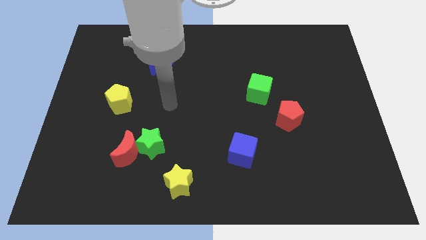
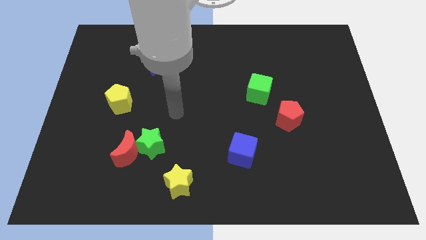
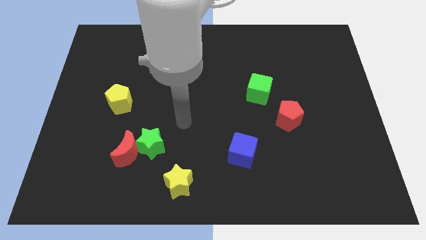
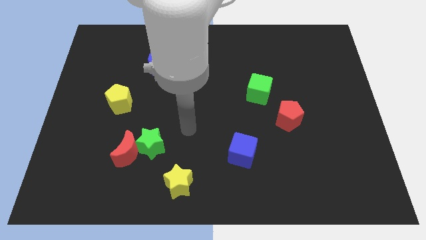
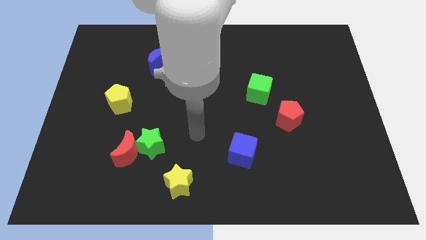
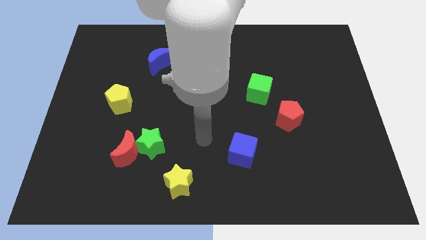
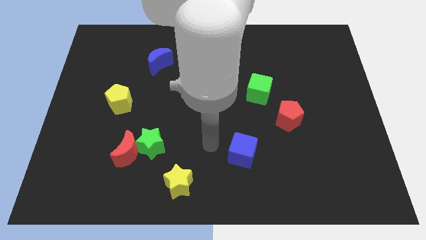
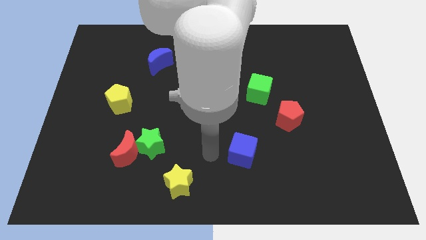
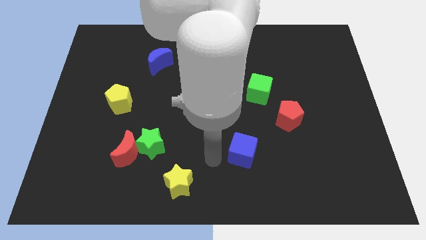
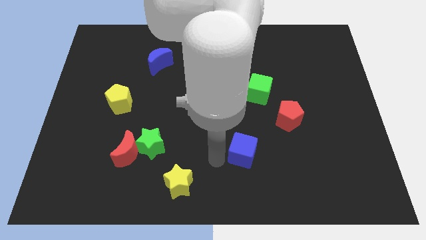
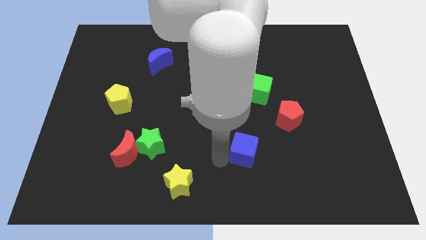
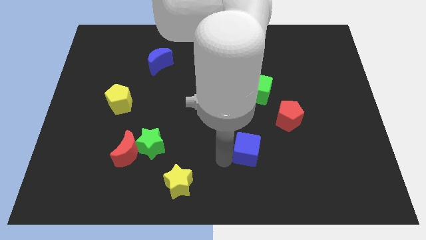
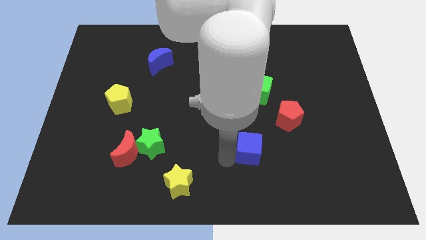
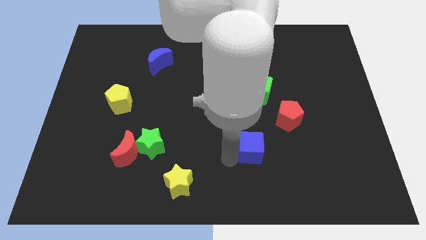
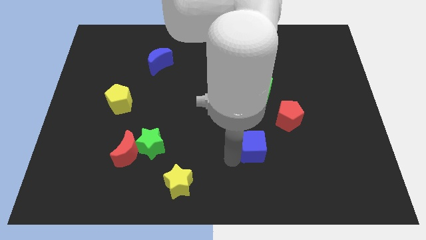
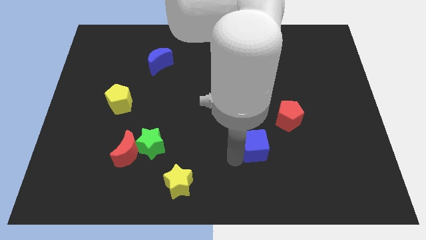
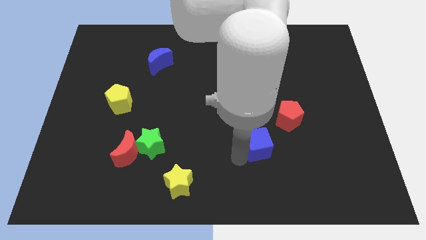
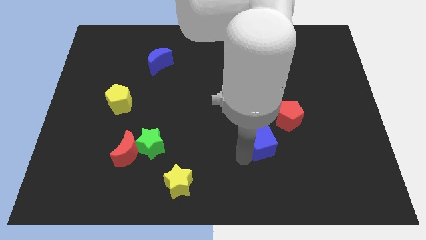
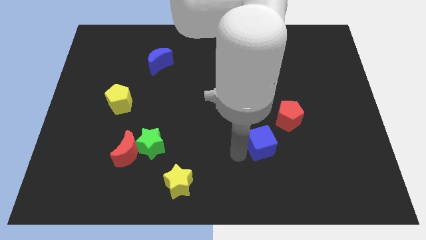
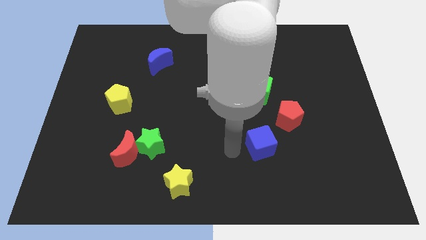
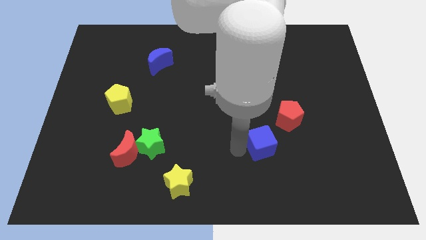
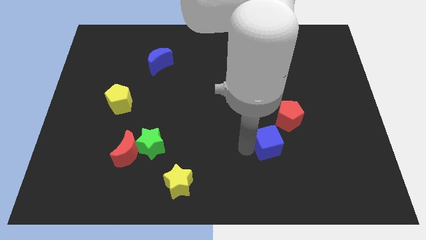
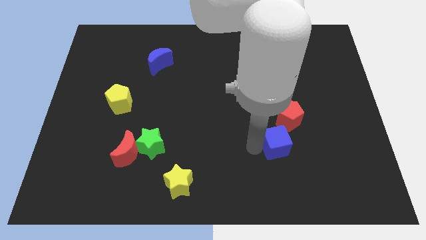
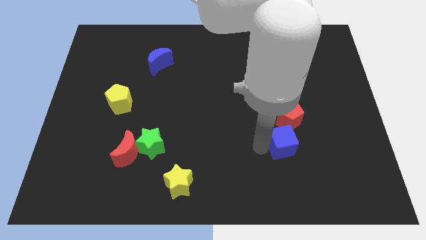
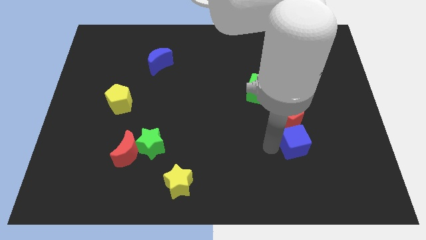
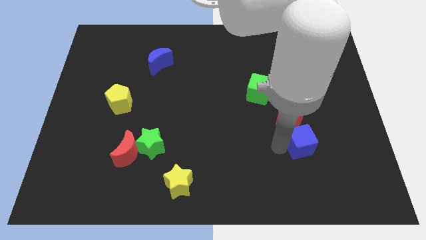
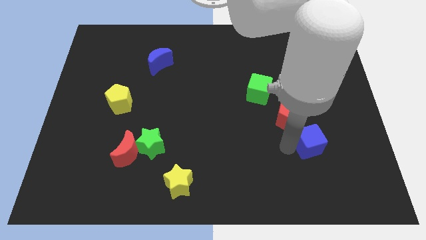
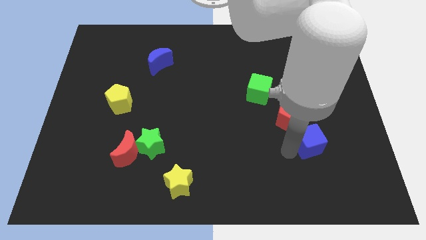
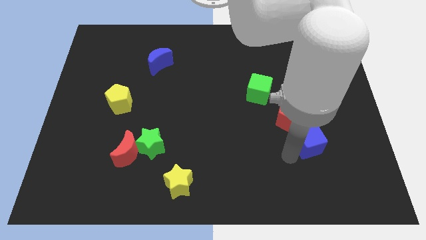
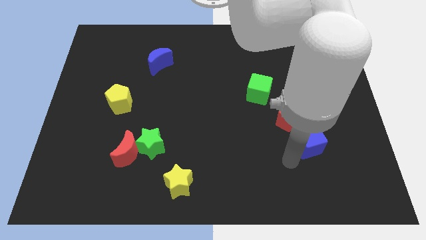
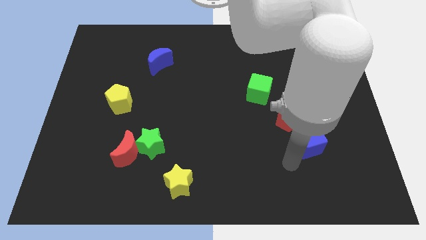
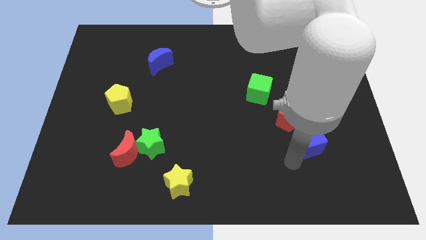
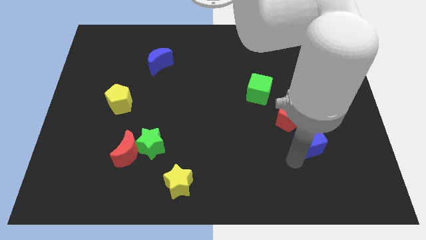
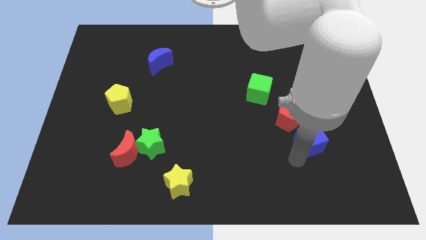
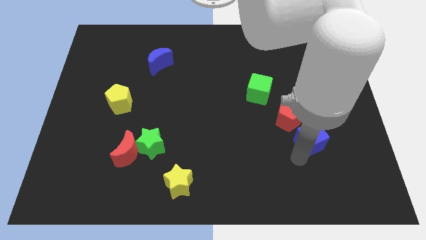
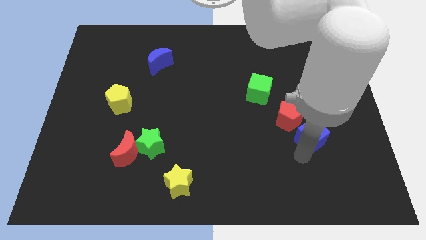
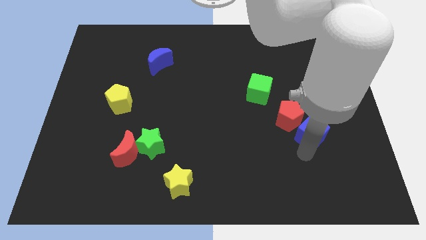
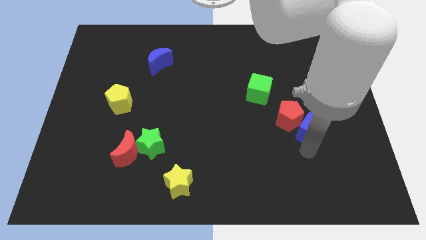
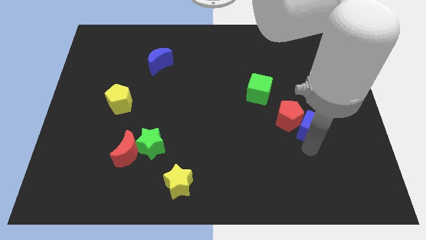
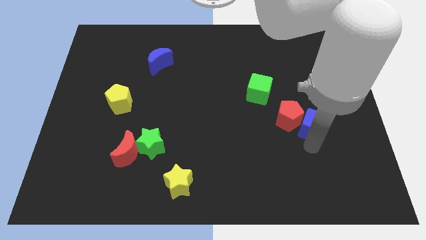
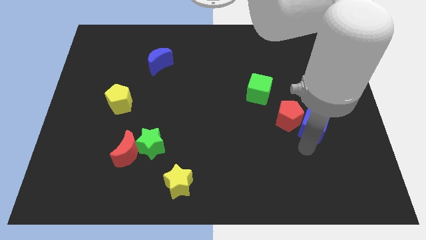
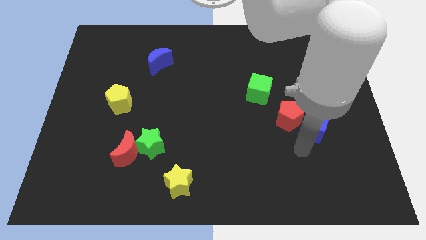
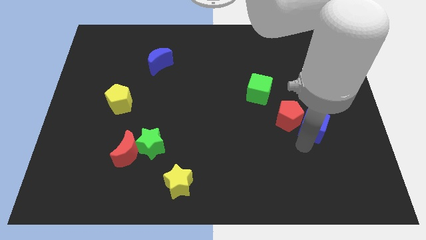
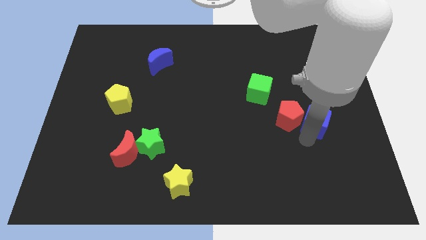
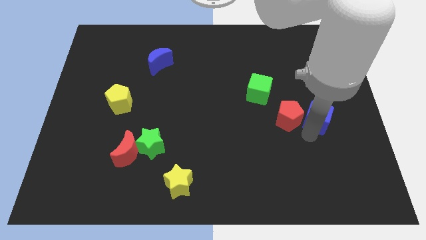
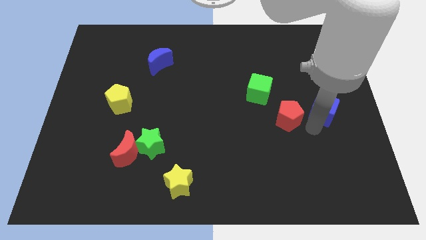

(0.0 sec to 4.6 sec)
move the blue cube upwards and then to the right

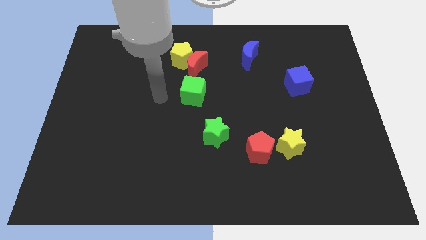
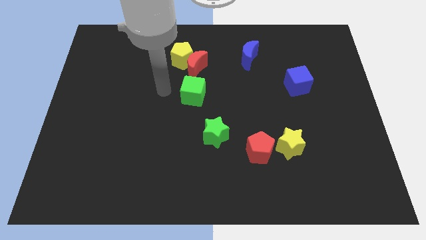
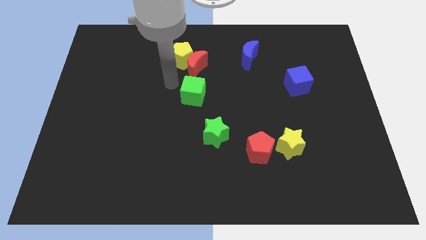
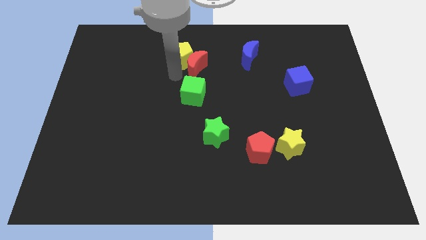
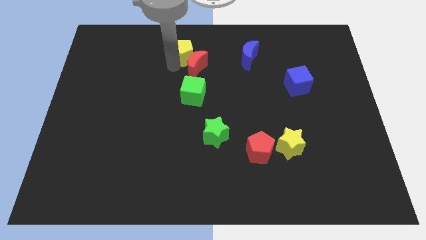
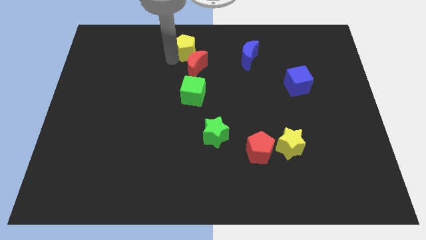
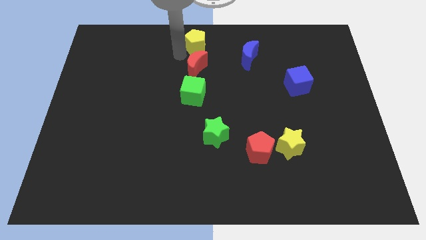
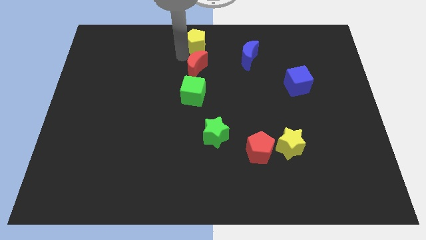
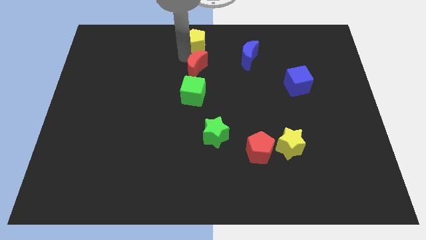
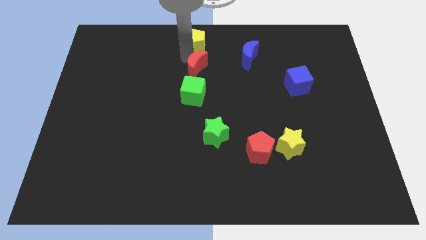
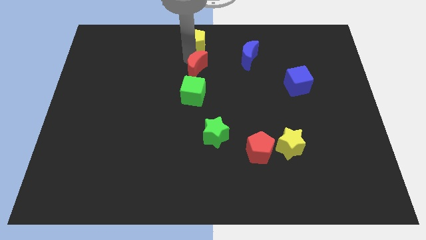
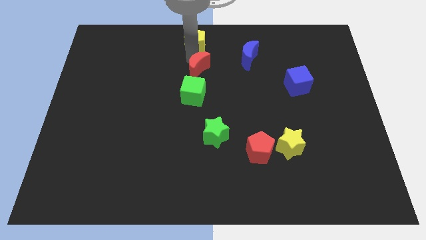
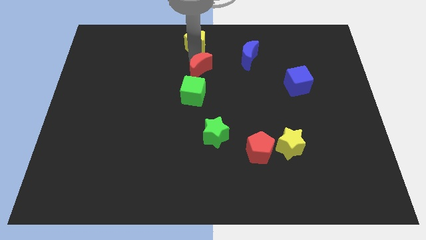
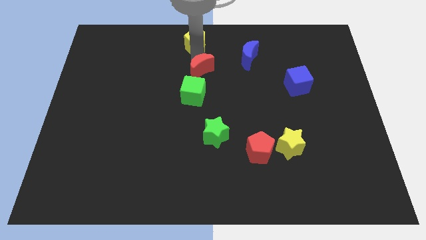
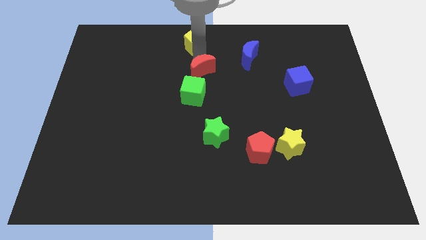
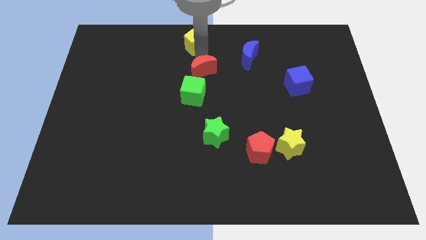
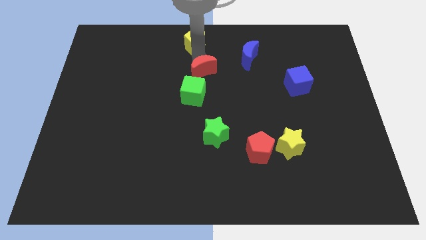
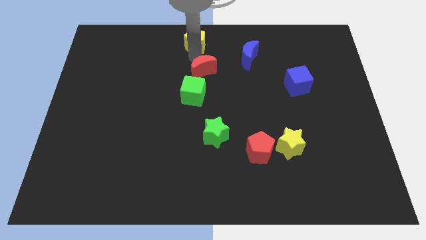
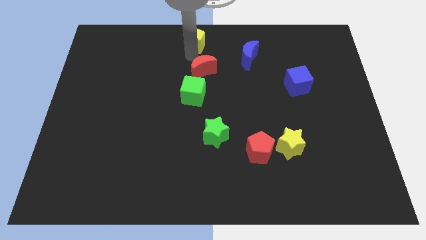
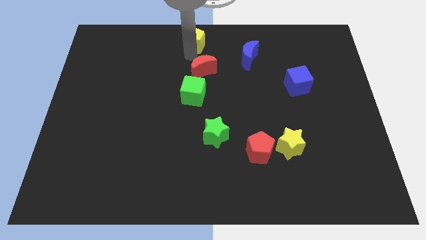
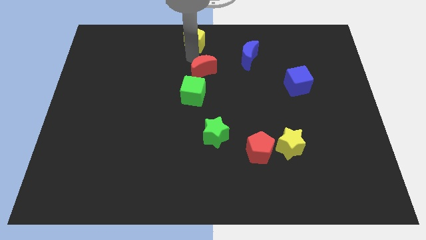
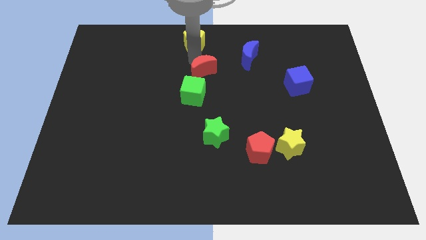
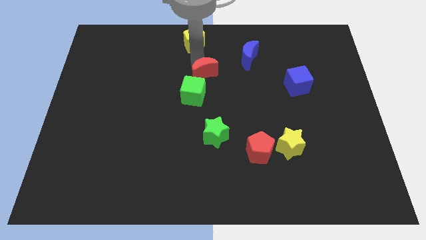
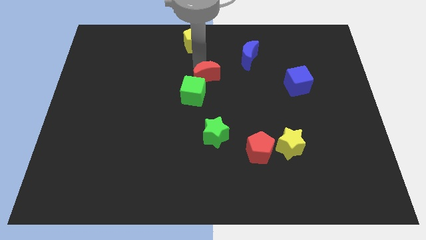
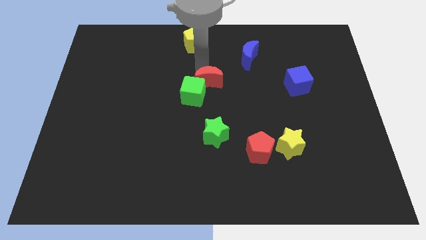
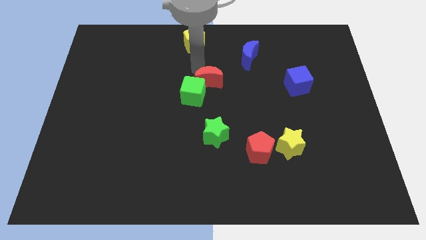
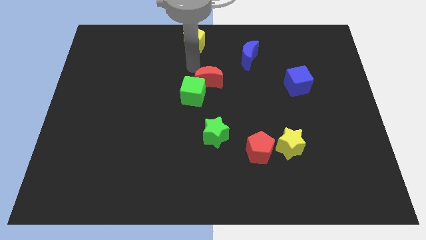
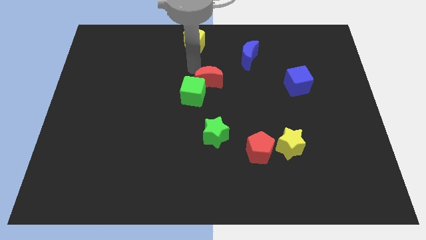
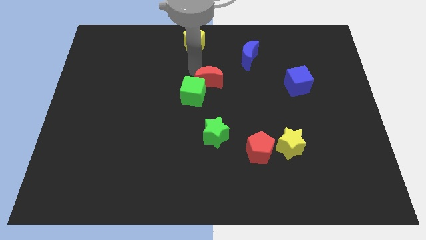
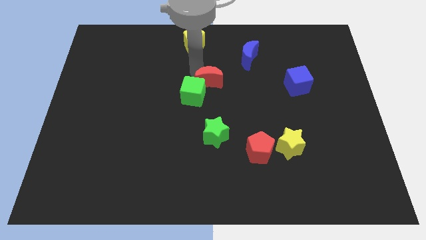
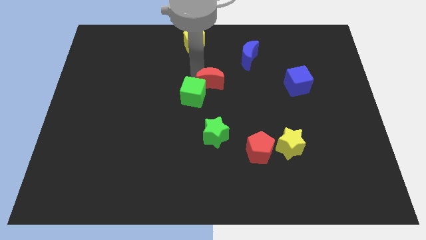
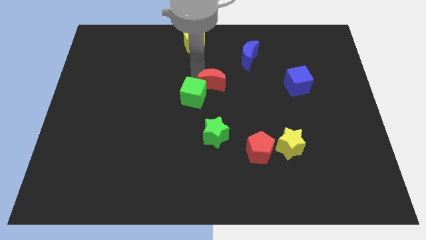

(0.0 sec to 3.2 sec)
slightly slide the red moon down and to the right diagonally

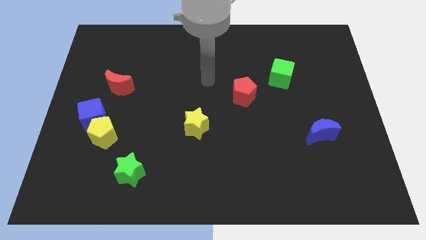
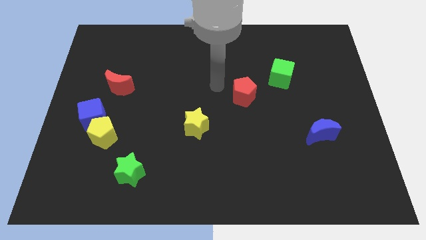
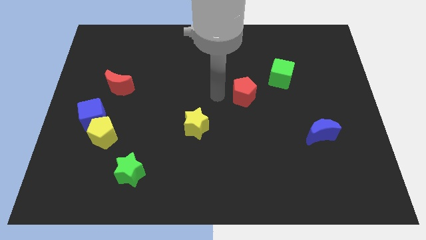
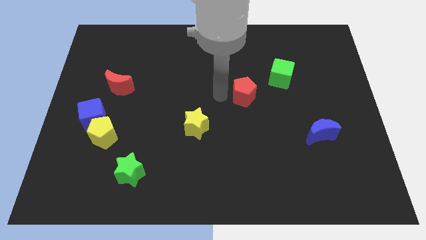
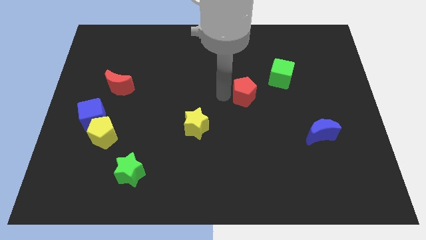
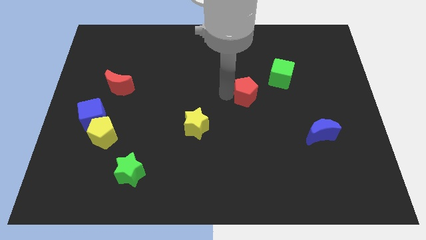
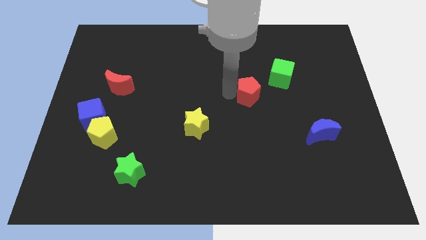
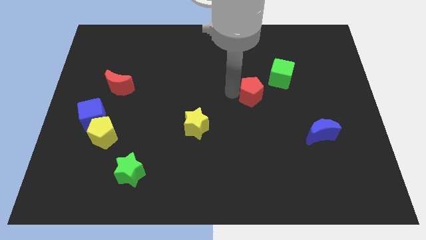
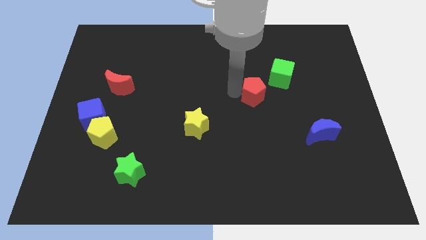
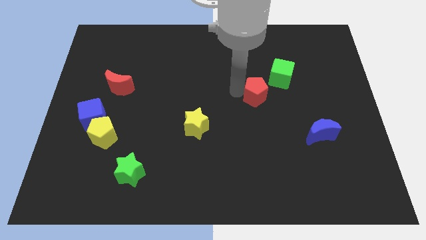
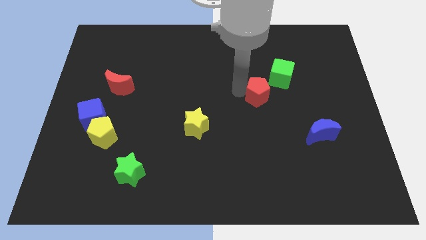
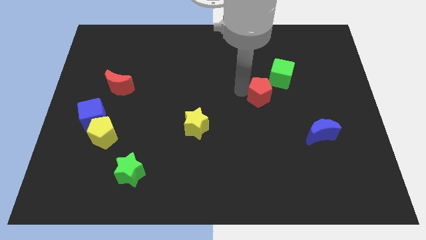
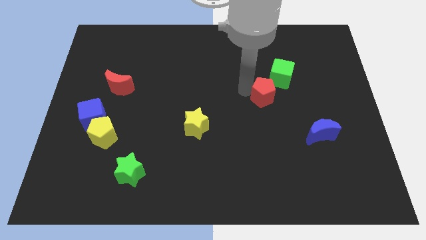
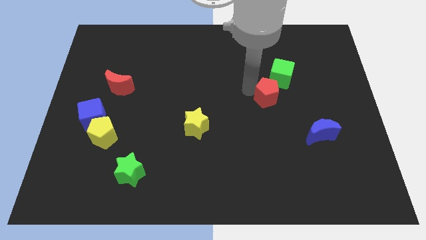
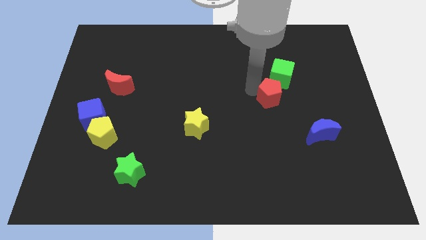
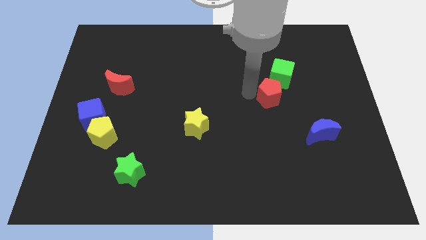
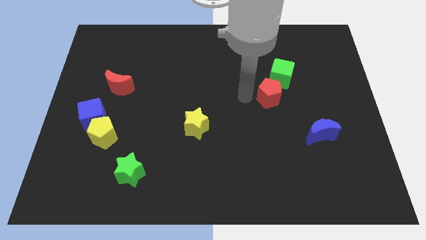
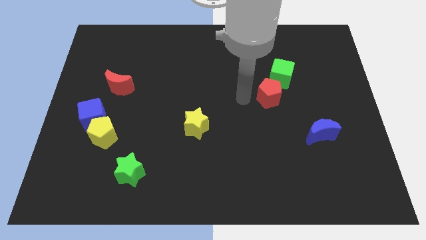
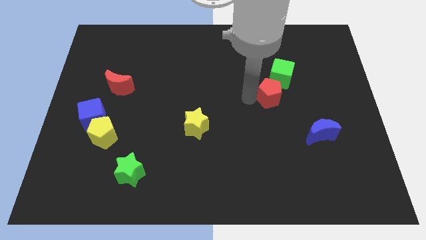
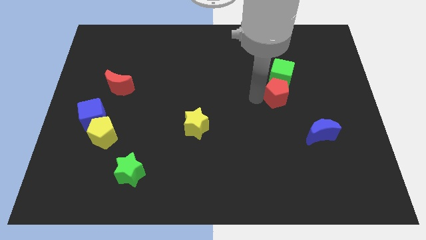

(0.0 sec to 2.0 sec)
move the red pentagon right a little bit
